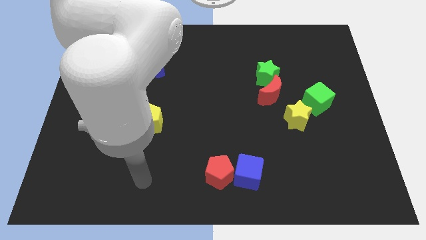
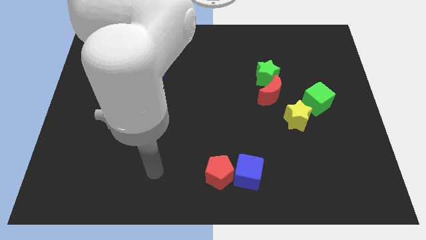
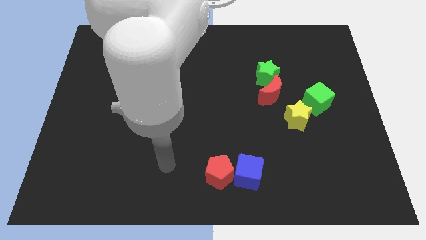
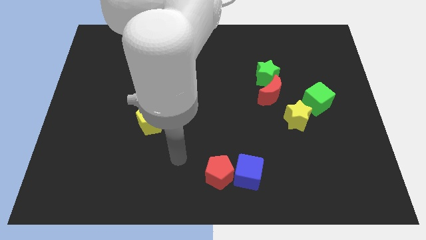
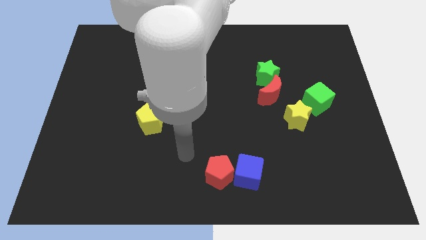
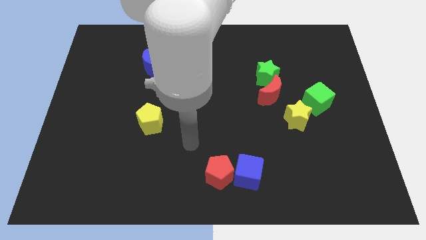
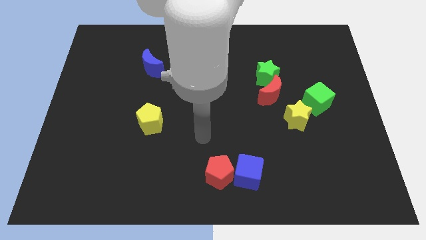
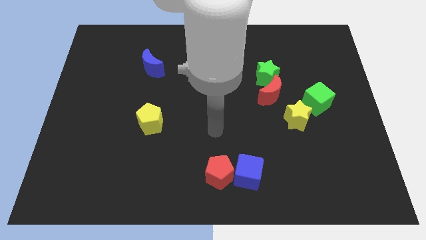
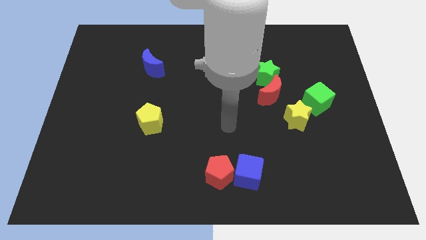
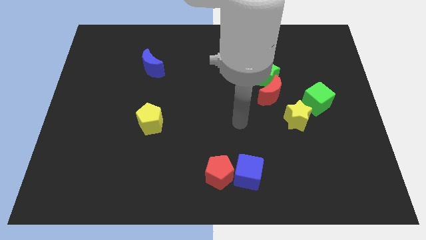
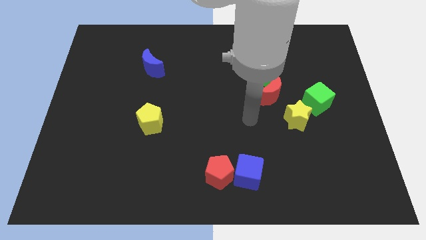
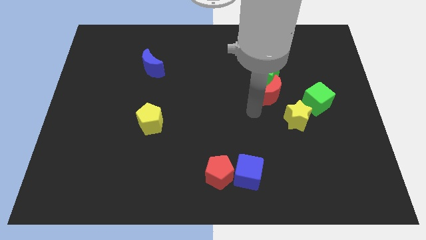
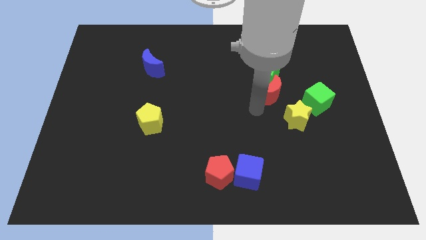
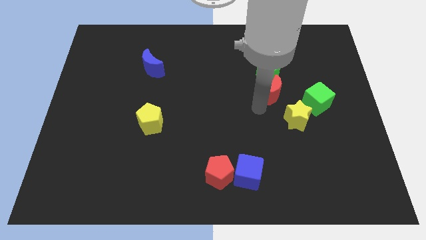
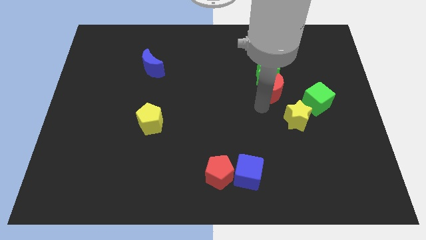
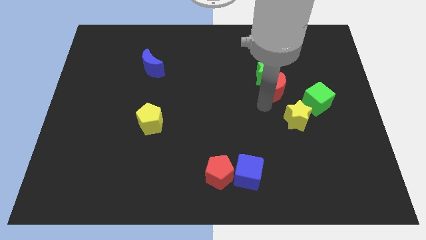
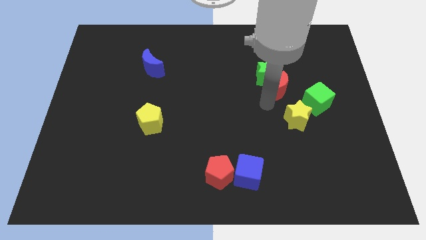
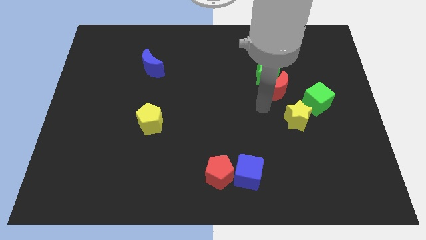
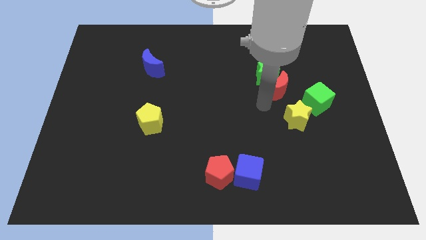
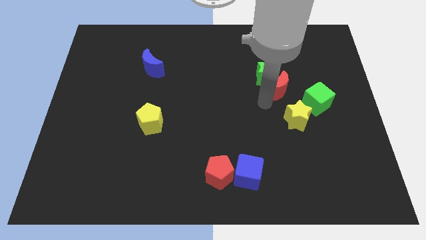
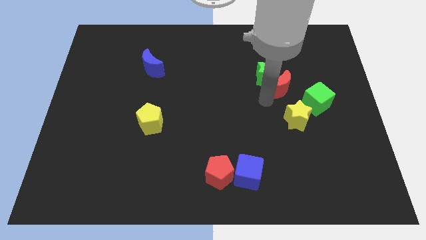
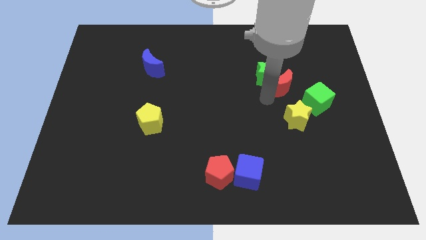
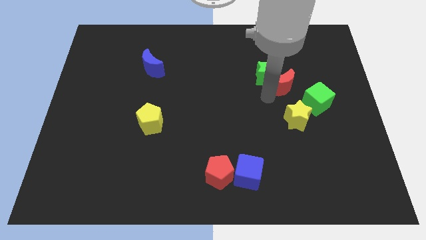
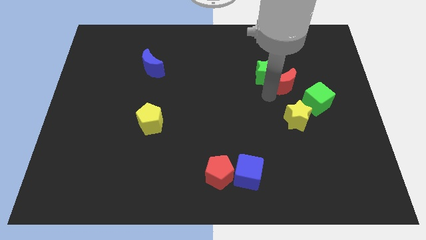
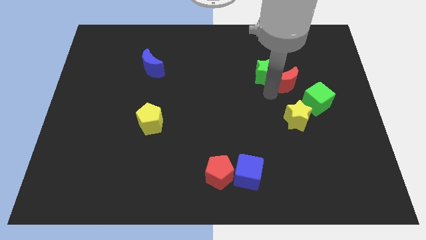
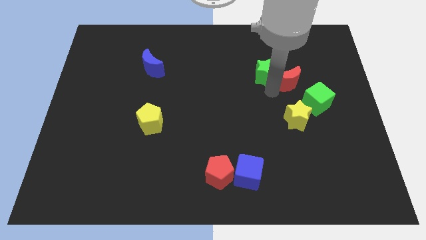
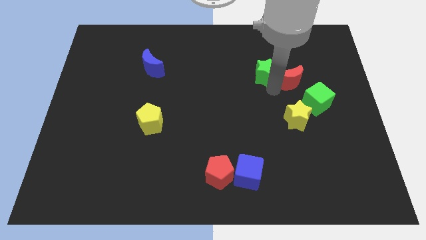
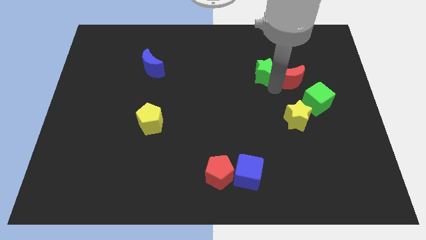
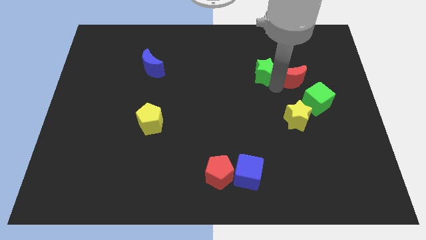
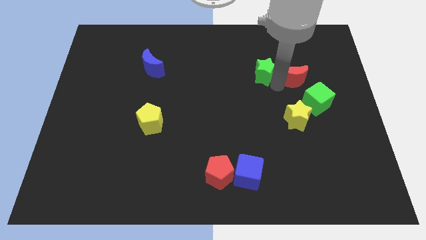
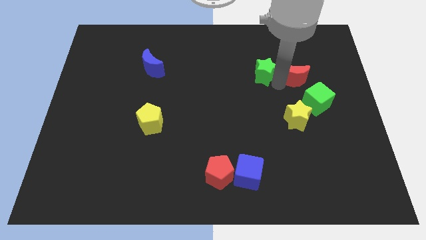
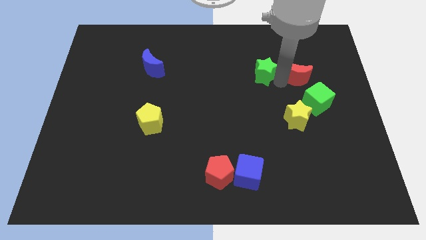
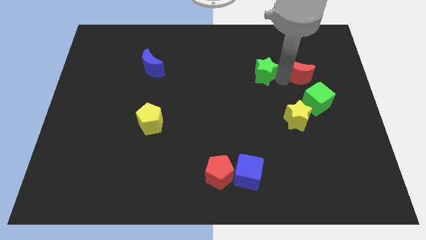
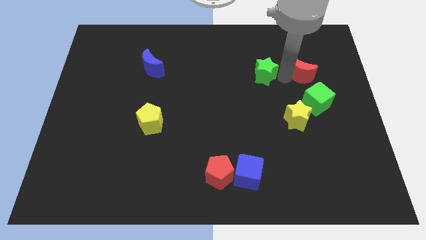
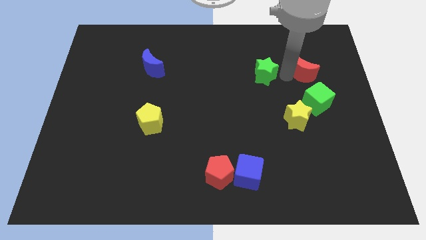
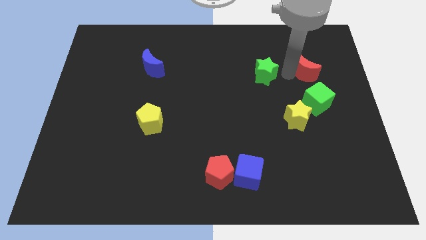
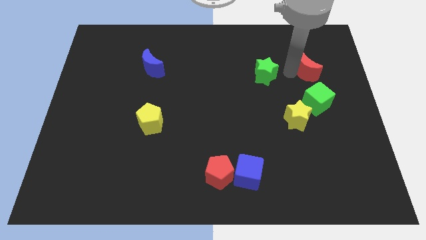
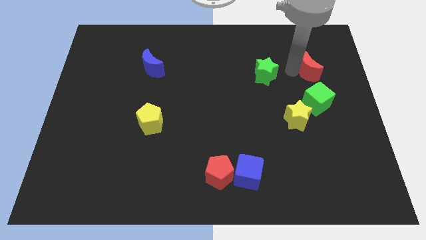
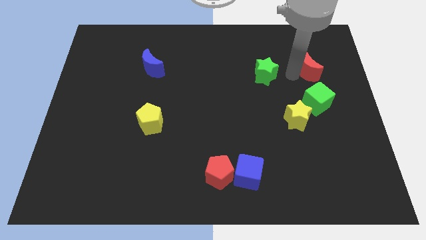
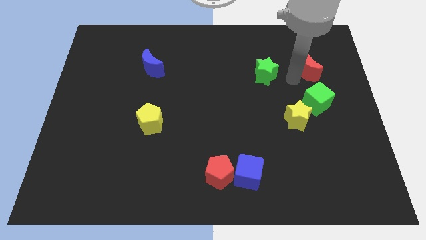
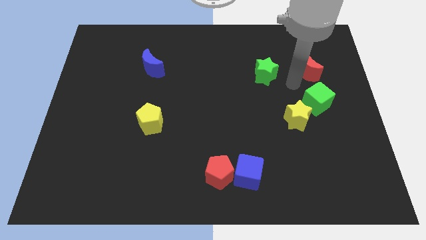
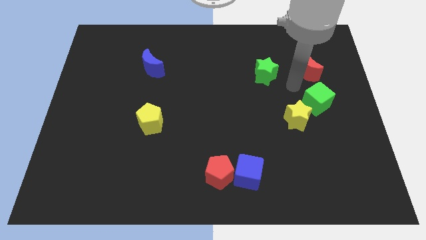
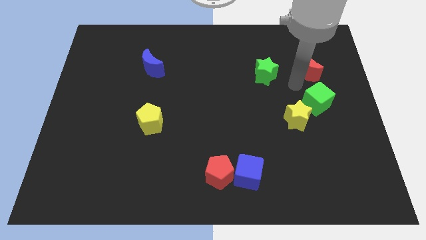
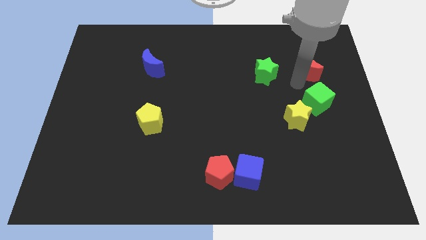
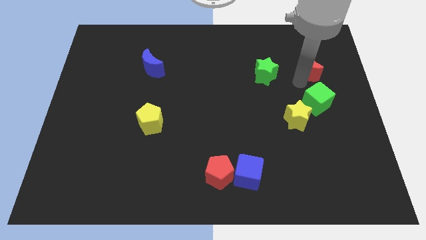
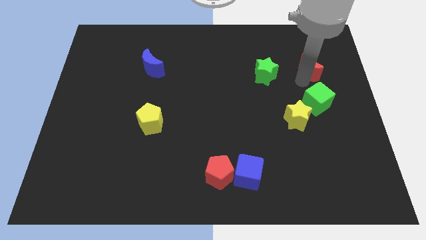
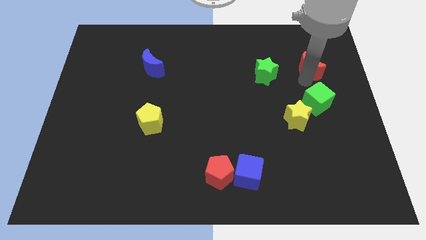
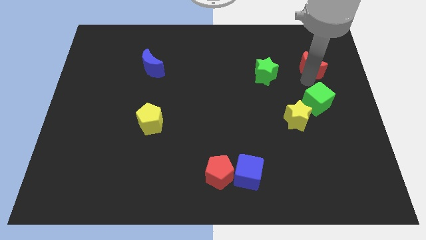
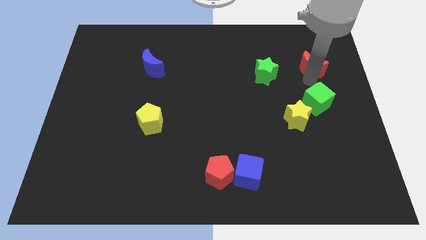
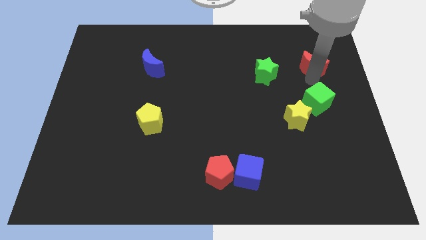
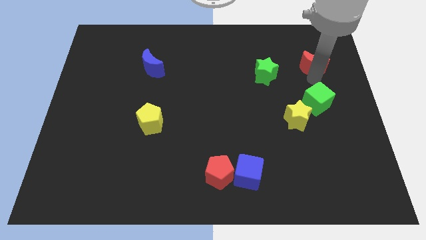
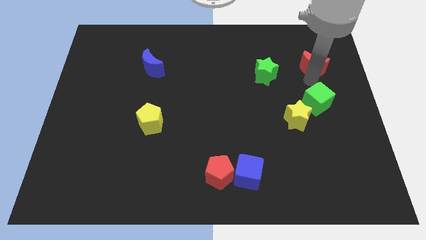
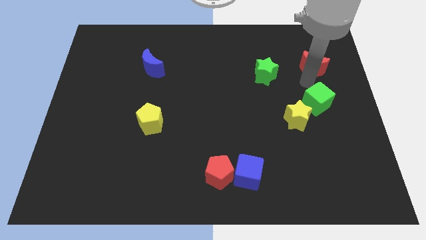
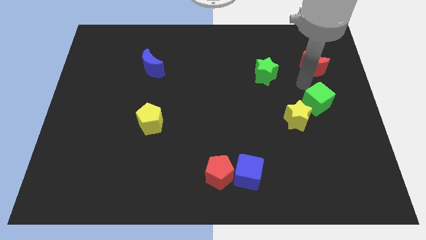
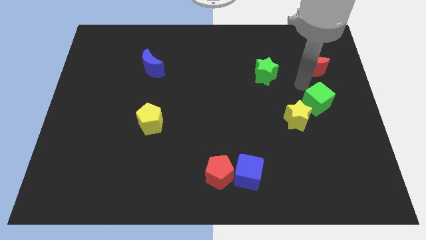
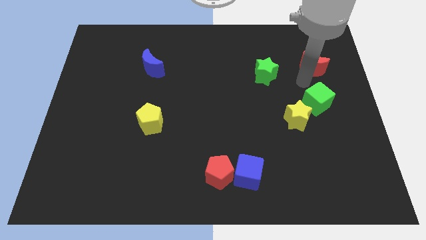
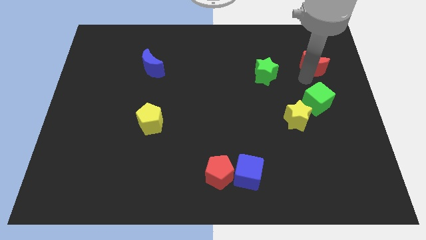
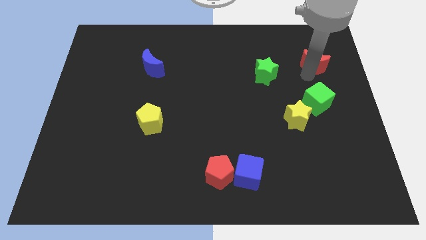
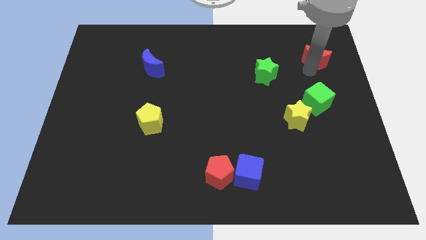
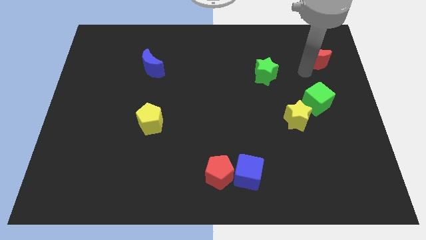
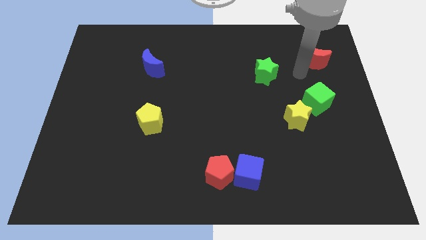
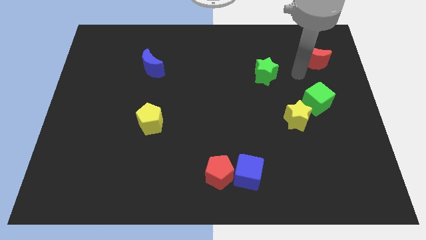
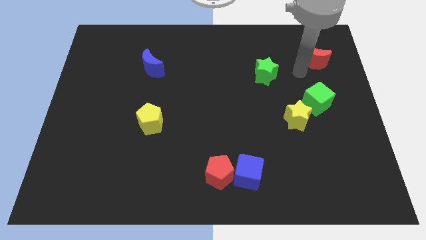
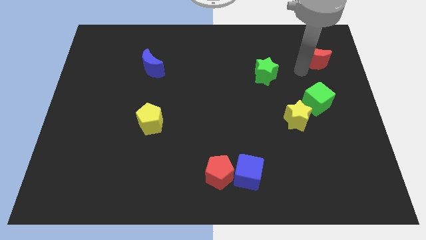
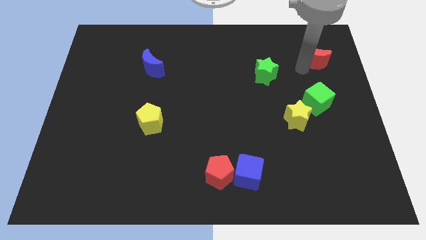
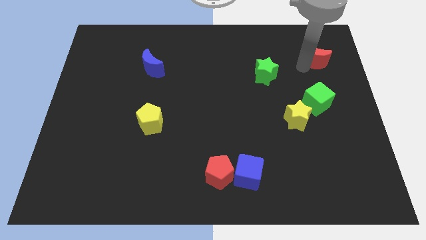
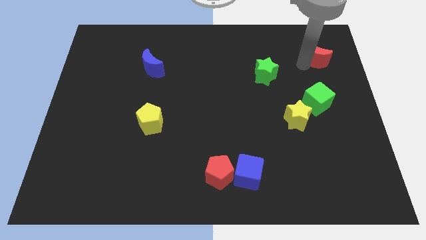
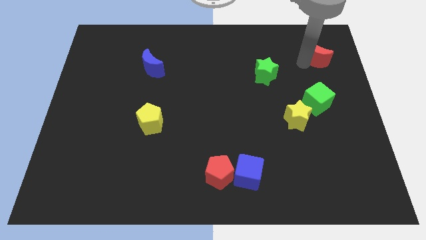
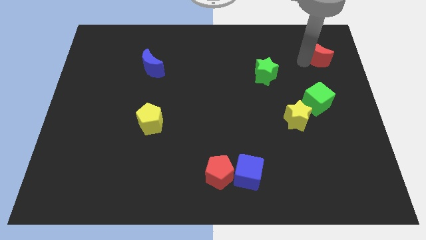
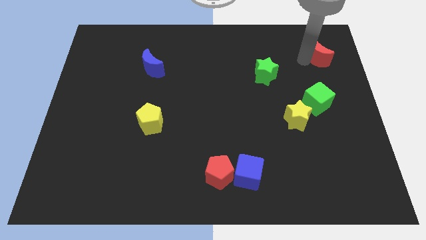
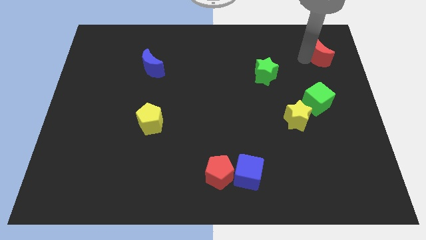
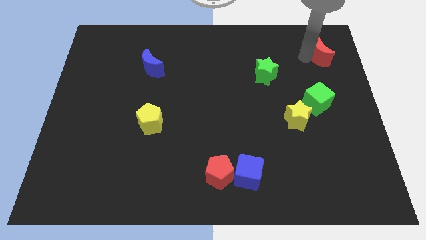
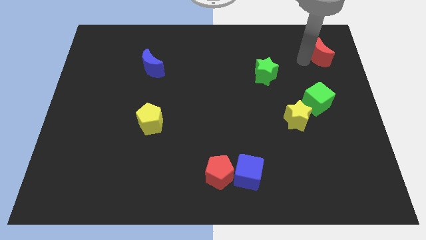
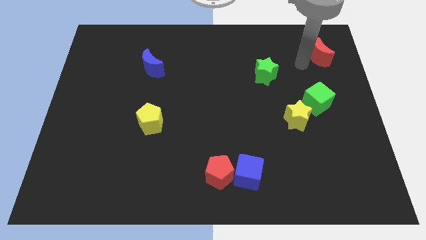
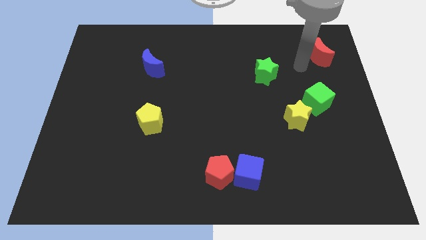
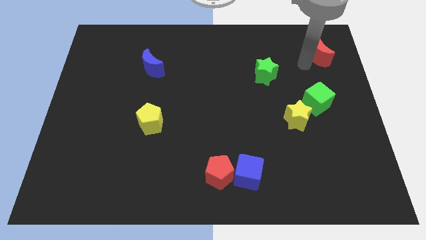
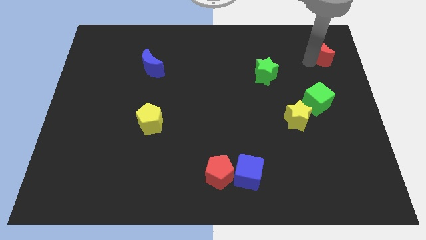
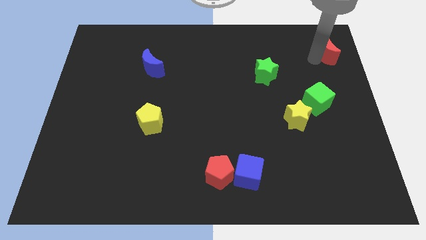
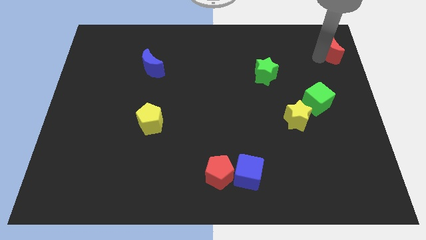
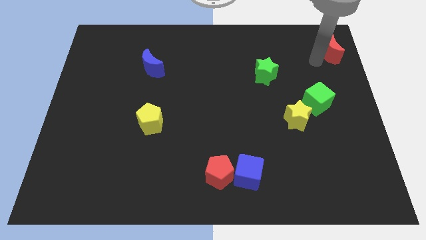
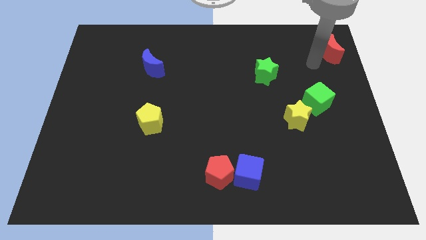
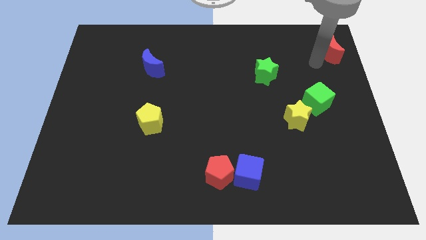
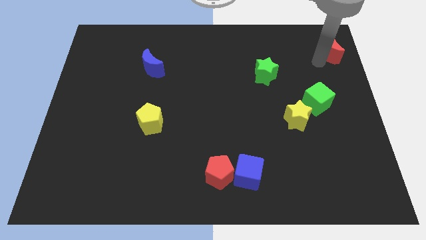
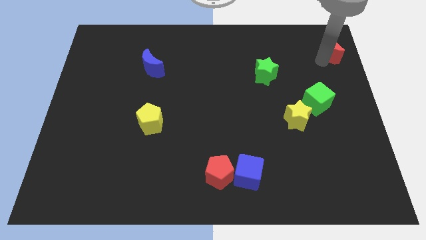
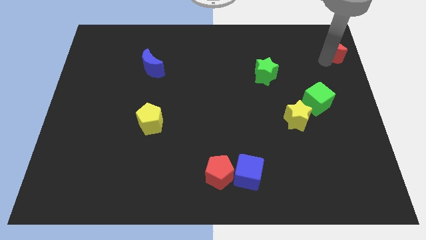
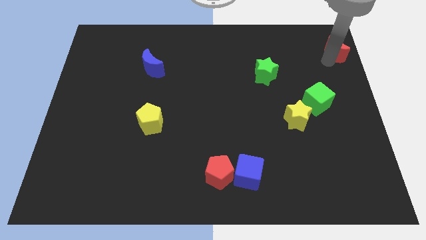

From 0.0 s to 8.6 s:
move the red moon to the top right
